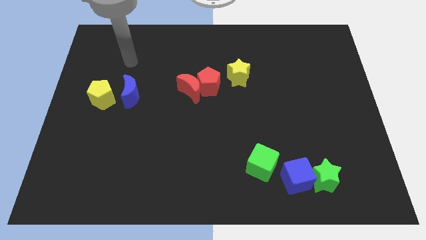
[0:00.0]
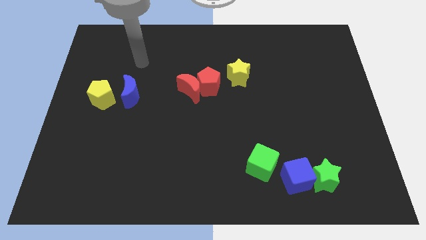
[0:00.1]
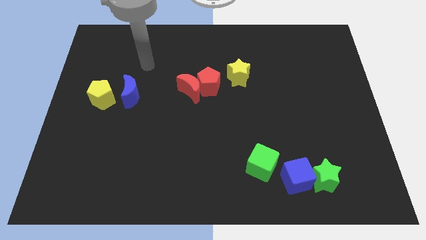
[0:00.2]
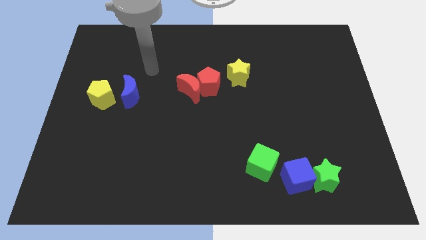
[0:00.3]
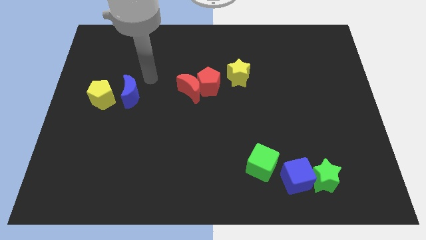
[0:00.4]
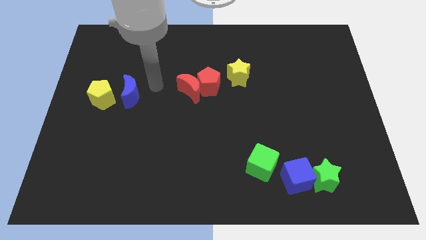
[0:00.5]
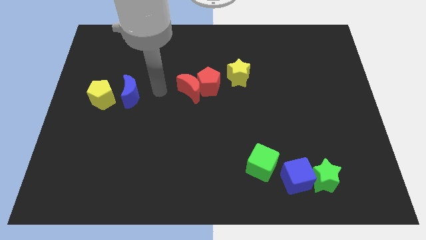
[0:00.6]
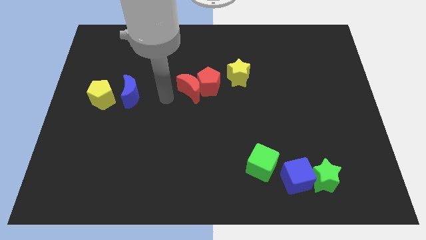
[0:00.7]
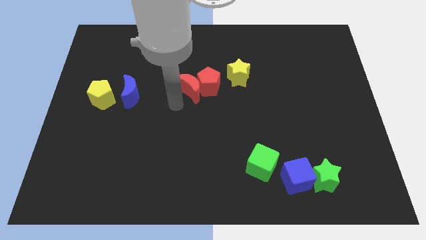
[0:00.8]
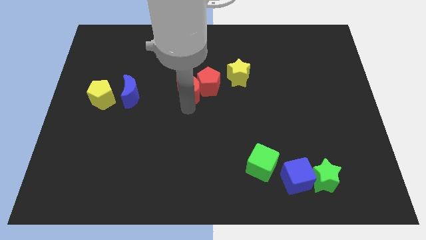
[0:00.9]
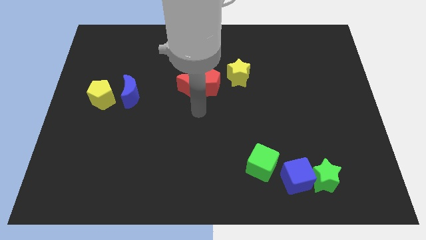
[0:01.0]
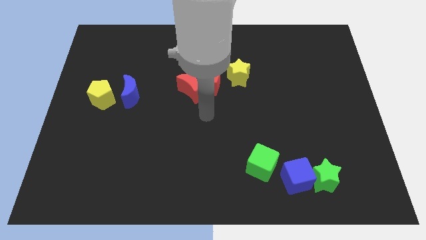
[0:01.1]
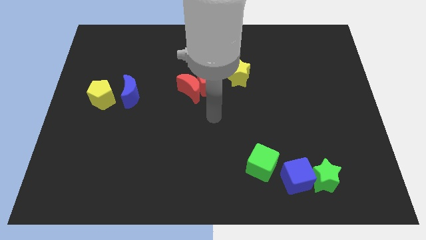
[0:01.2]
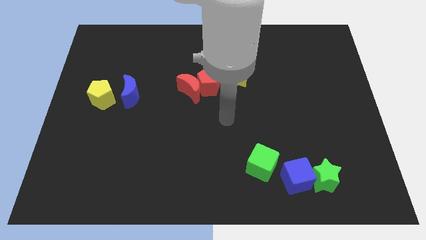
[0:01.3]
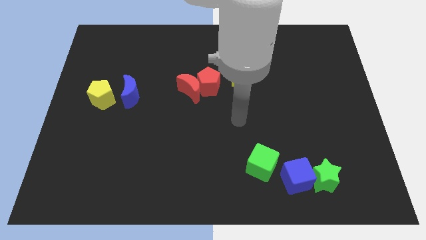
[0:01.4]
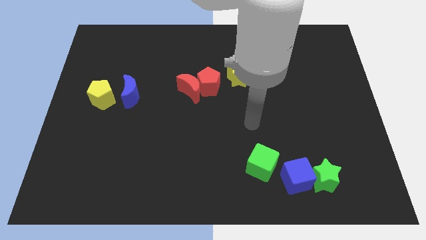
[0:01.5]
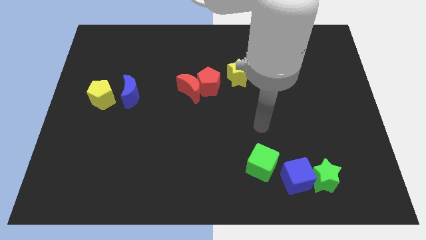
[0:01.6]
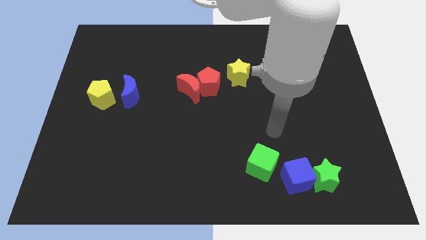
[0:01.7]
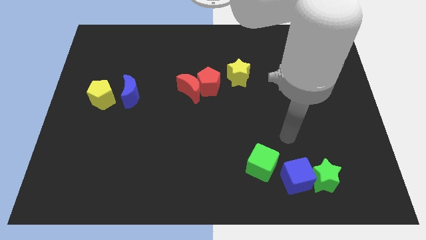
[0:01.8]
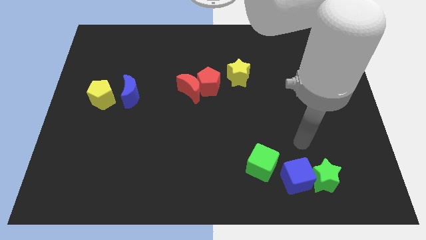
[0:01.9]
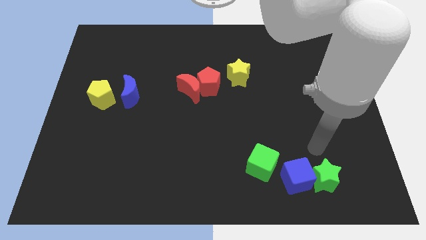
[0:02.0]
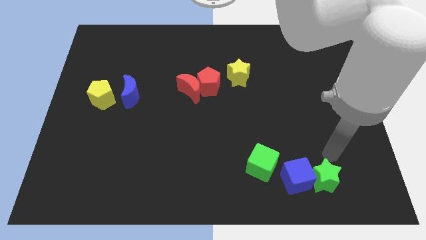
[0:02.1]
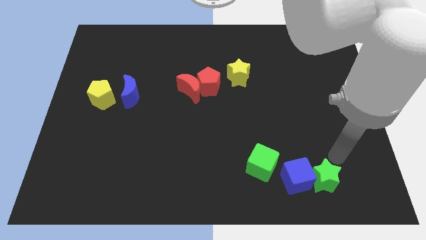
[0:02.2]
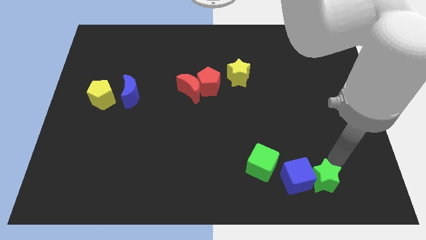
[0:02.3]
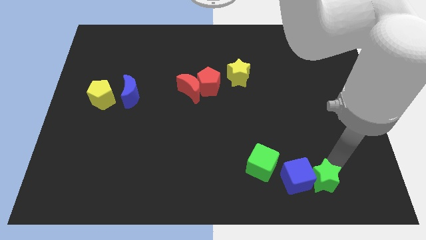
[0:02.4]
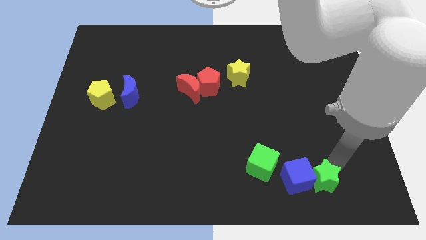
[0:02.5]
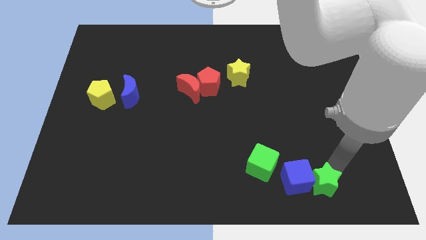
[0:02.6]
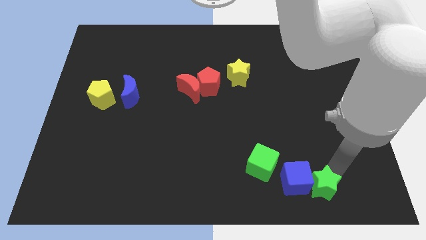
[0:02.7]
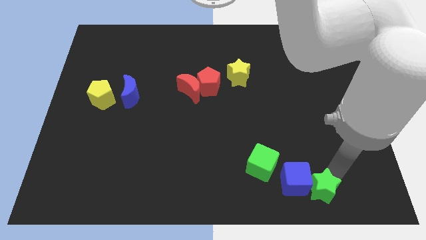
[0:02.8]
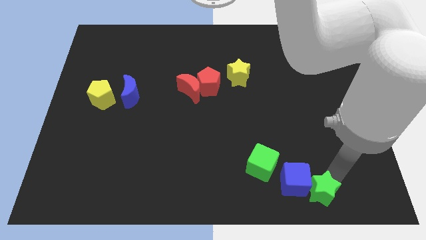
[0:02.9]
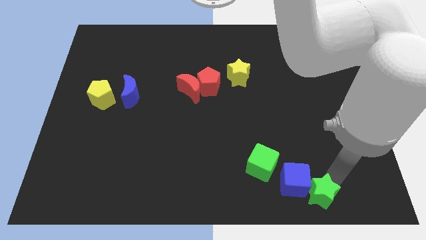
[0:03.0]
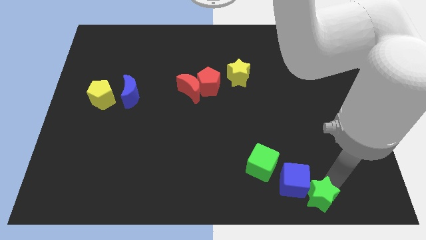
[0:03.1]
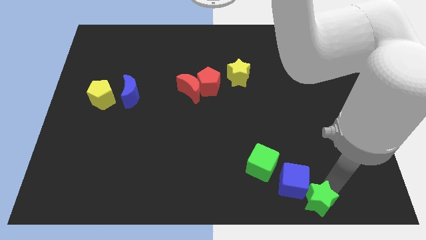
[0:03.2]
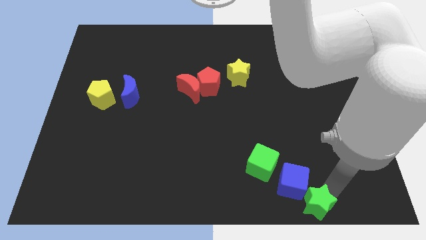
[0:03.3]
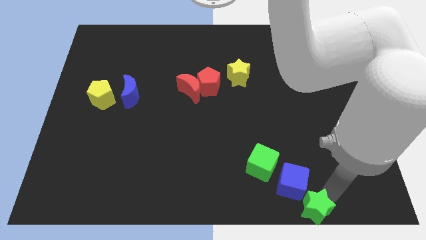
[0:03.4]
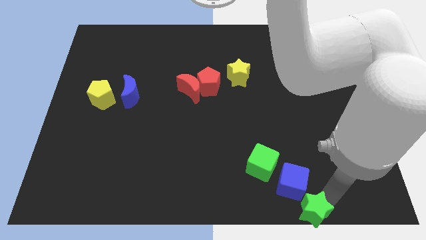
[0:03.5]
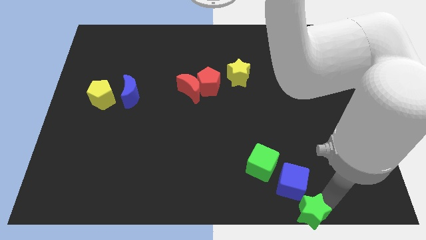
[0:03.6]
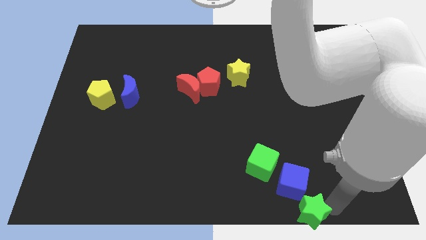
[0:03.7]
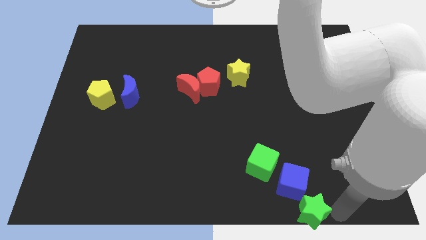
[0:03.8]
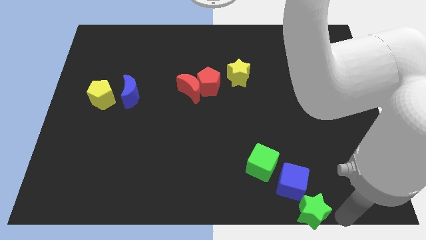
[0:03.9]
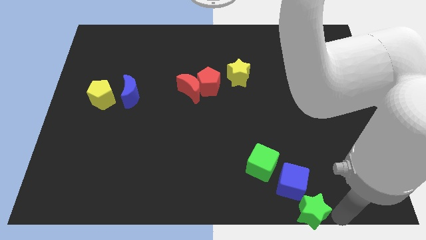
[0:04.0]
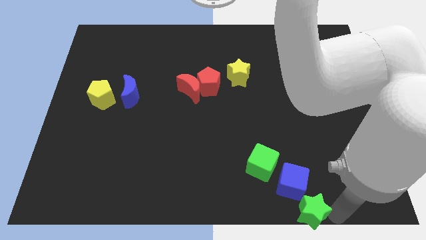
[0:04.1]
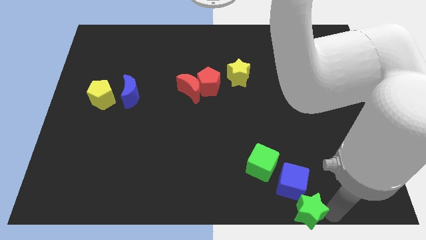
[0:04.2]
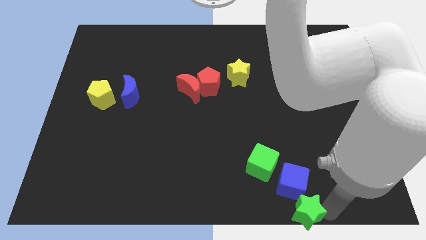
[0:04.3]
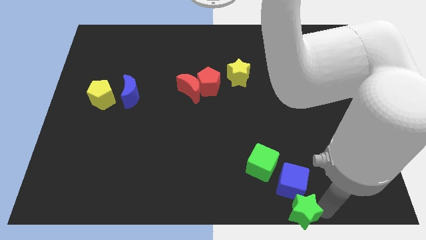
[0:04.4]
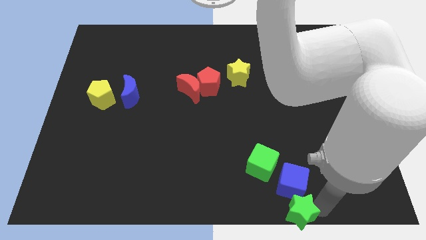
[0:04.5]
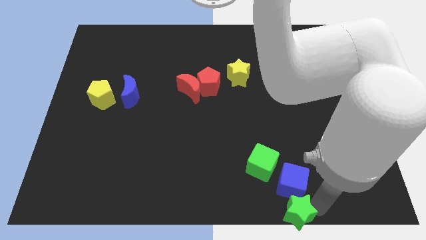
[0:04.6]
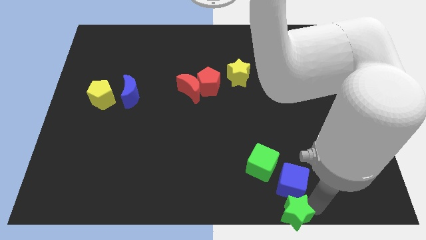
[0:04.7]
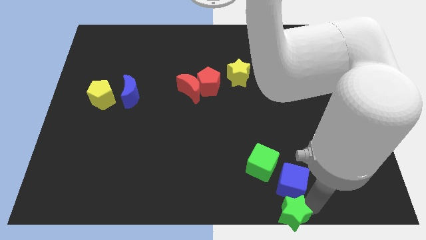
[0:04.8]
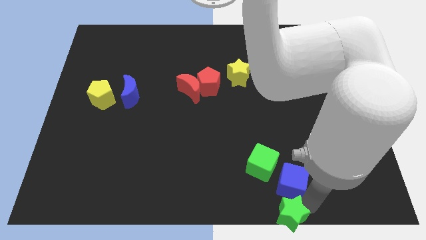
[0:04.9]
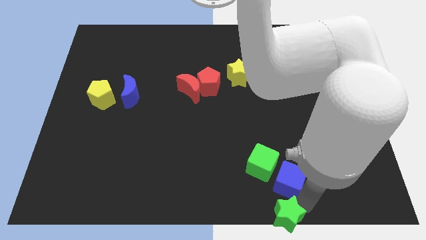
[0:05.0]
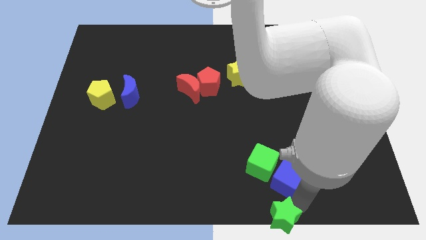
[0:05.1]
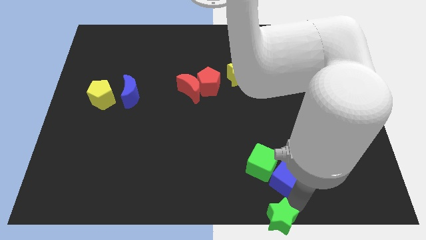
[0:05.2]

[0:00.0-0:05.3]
slide the green star a little left

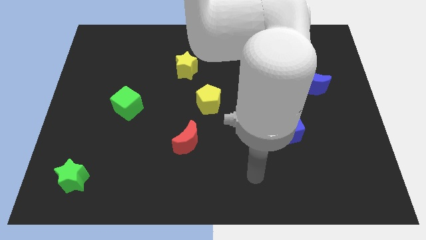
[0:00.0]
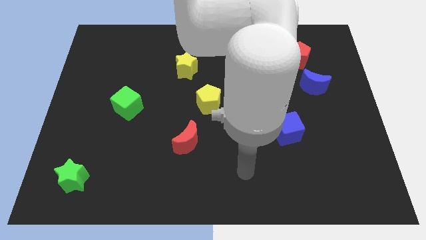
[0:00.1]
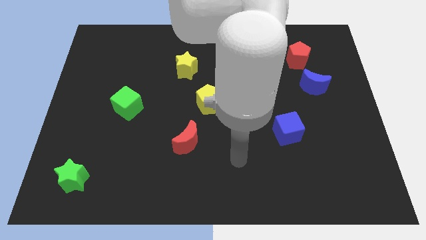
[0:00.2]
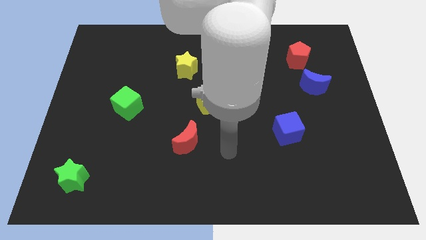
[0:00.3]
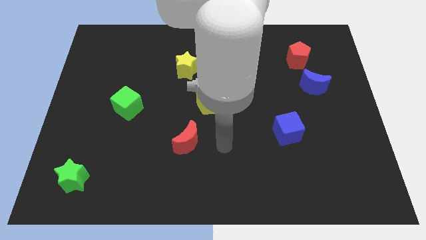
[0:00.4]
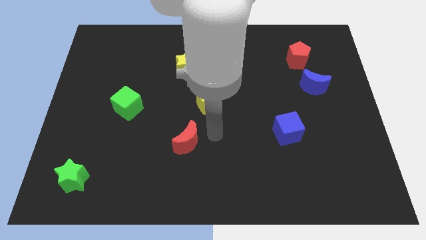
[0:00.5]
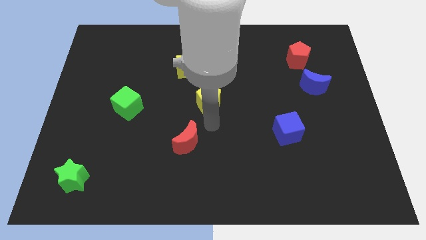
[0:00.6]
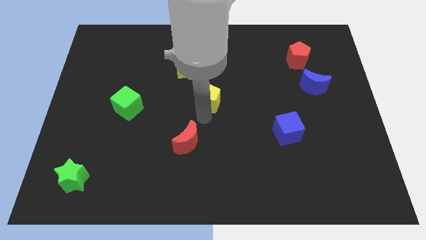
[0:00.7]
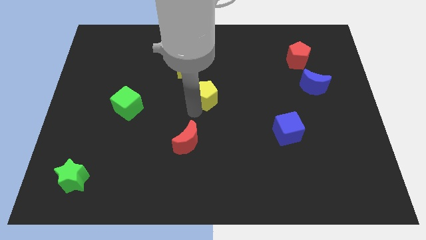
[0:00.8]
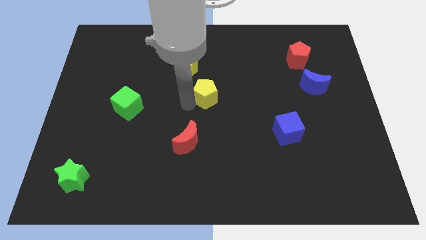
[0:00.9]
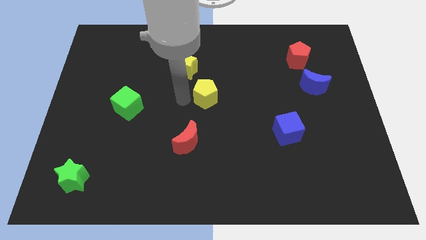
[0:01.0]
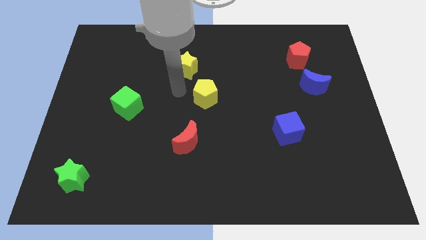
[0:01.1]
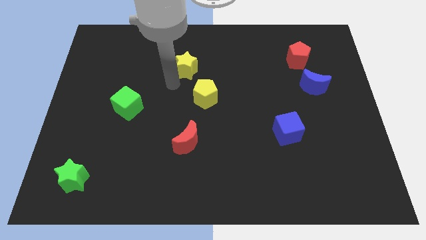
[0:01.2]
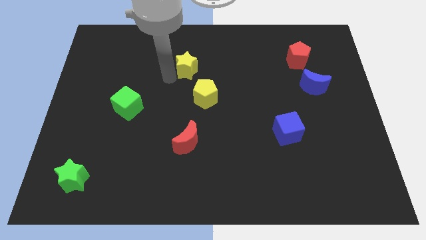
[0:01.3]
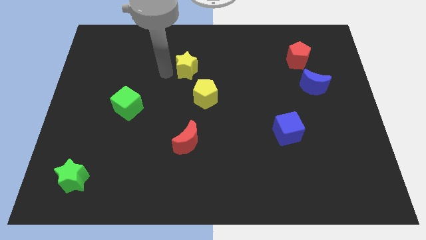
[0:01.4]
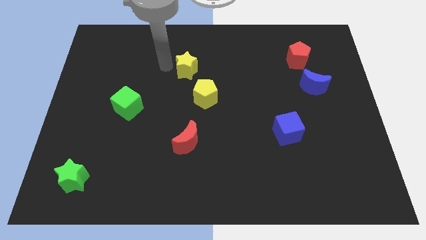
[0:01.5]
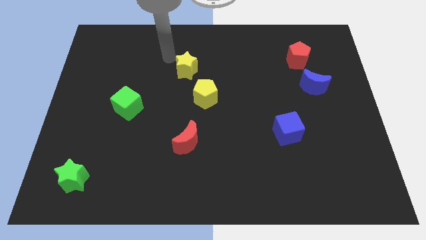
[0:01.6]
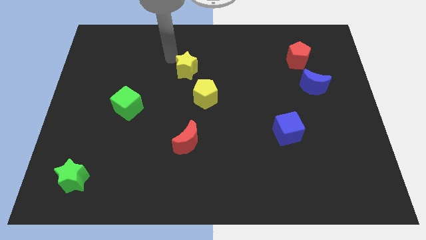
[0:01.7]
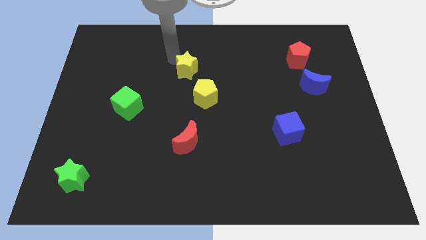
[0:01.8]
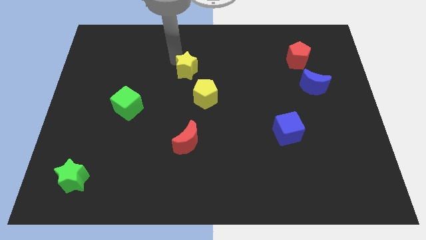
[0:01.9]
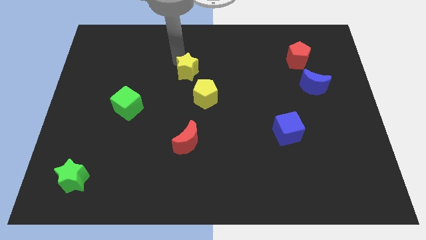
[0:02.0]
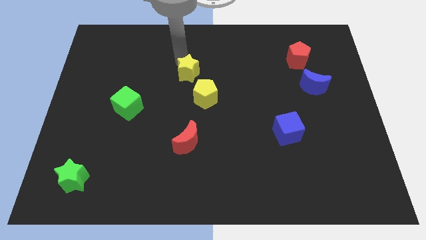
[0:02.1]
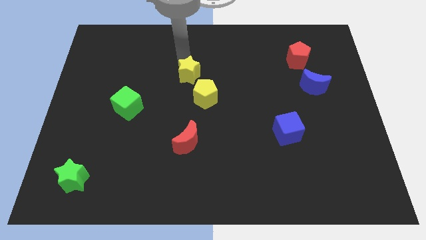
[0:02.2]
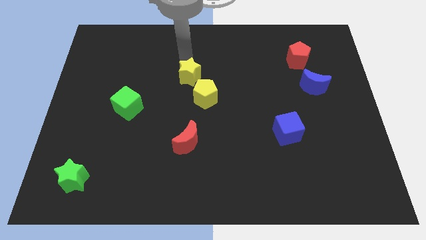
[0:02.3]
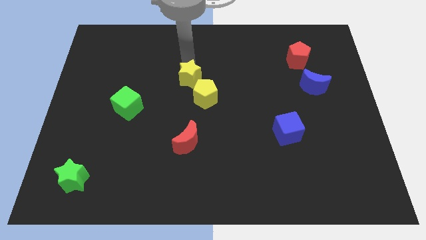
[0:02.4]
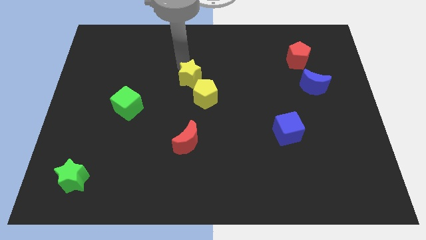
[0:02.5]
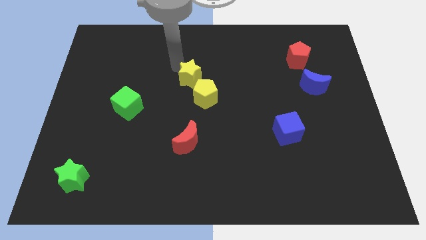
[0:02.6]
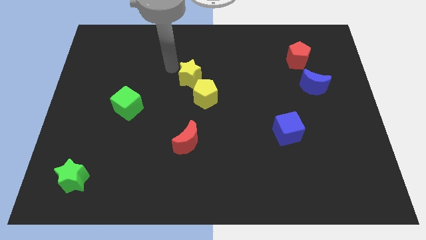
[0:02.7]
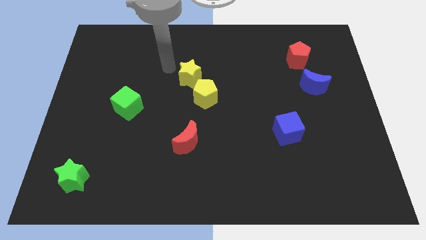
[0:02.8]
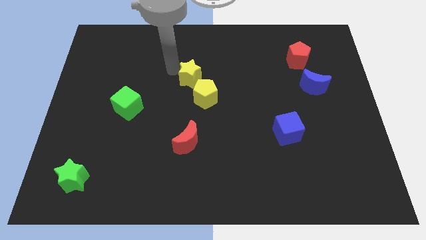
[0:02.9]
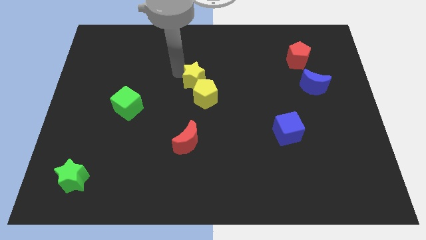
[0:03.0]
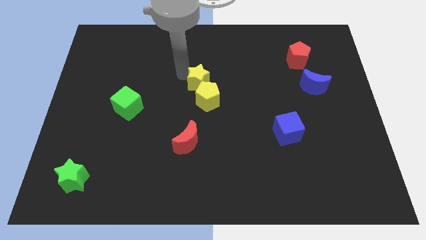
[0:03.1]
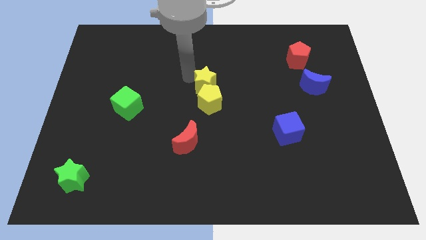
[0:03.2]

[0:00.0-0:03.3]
push the yellow star somewhat downwards and to the right diagonally
